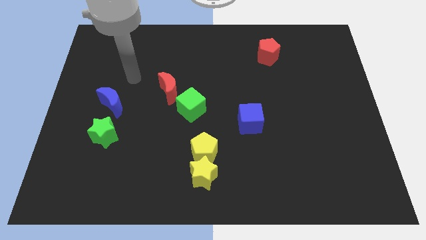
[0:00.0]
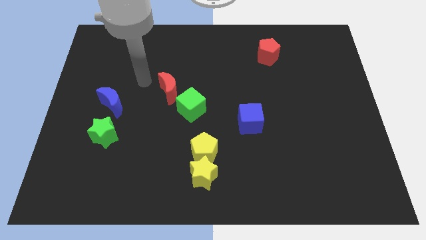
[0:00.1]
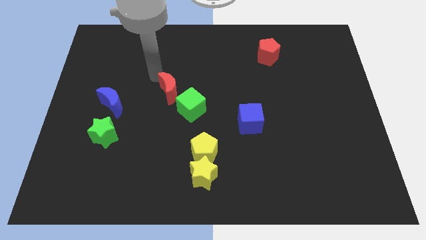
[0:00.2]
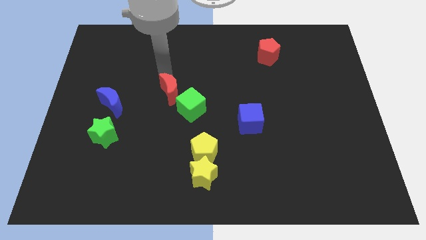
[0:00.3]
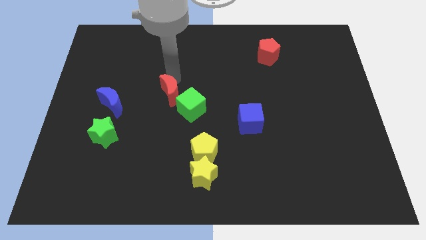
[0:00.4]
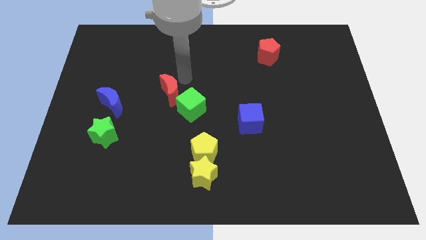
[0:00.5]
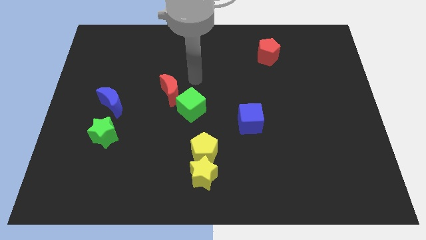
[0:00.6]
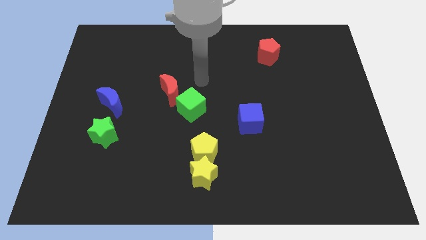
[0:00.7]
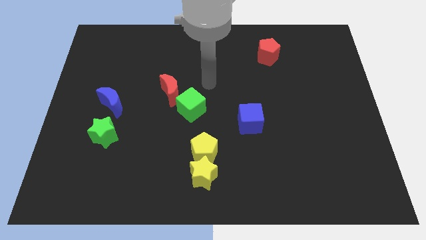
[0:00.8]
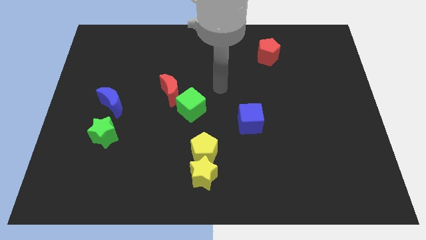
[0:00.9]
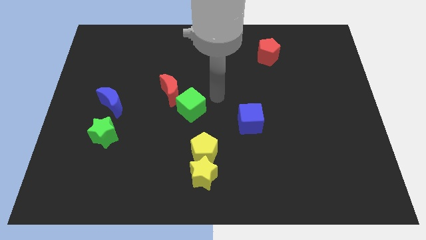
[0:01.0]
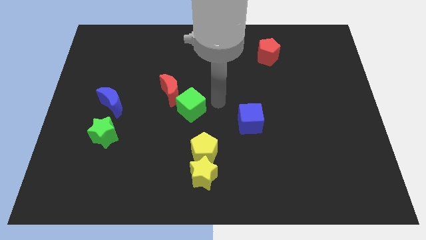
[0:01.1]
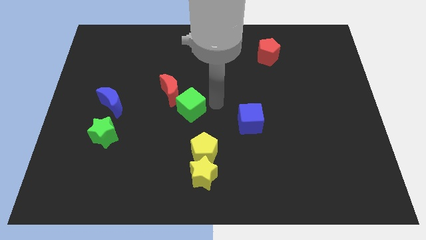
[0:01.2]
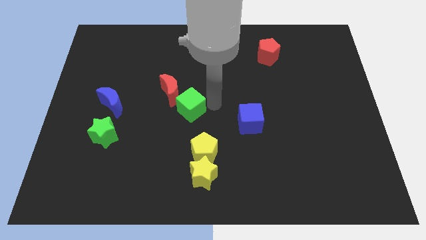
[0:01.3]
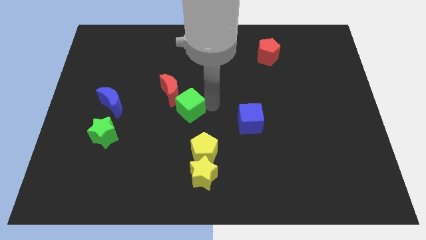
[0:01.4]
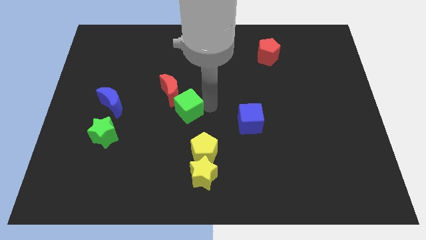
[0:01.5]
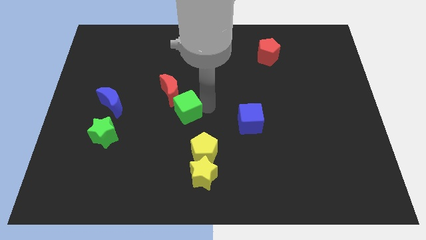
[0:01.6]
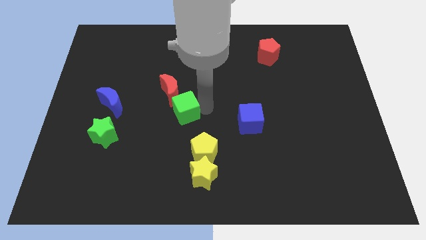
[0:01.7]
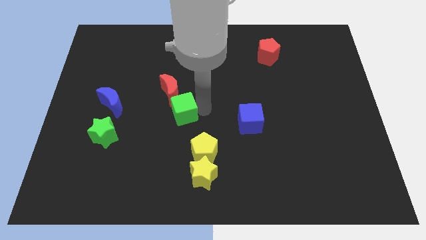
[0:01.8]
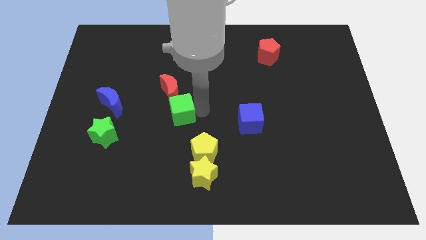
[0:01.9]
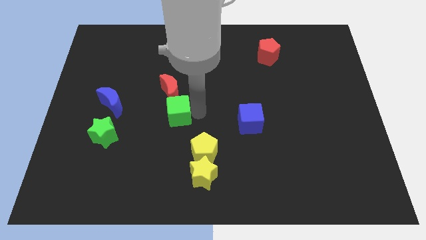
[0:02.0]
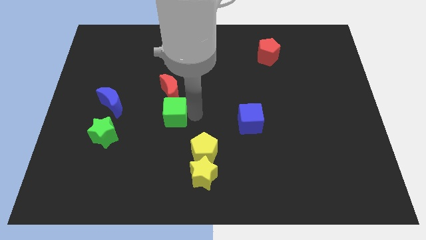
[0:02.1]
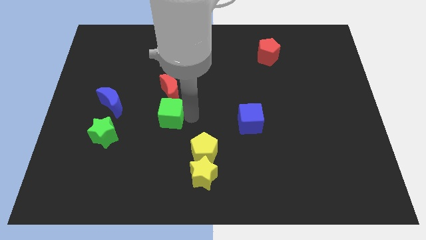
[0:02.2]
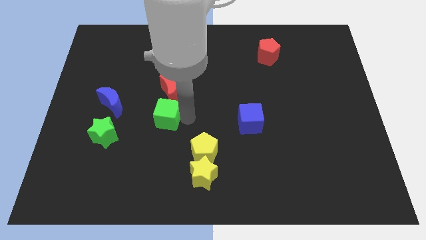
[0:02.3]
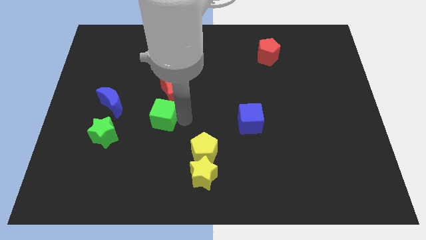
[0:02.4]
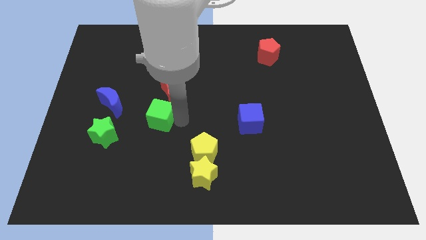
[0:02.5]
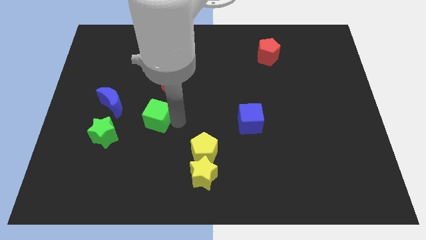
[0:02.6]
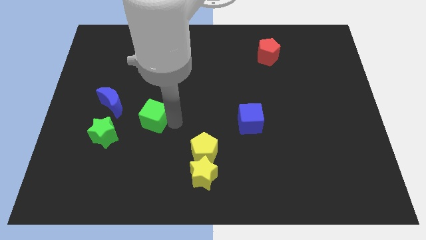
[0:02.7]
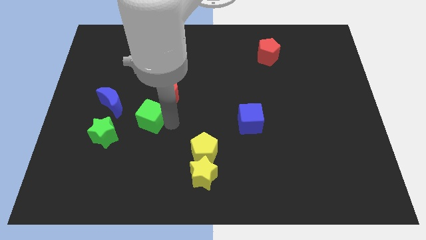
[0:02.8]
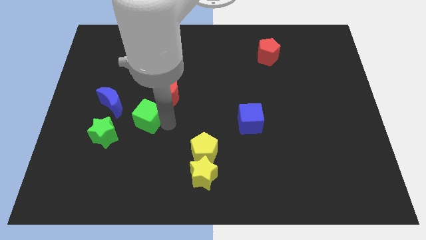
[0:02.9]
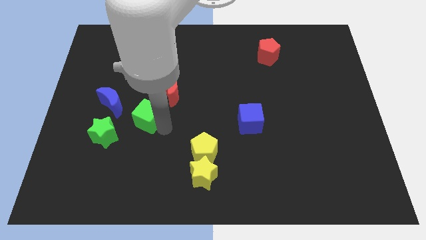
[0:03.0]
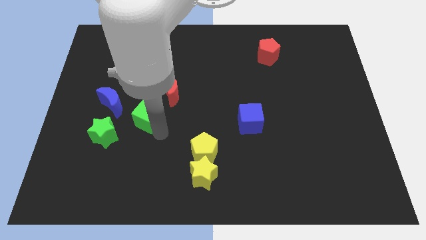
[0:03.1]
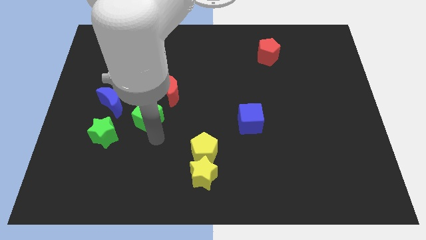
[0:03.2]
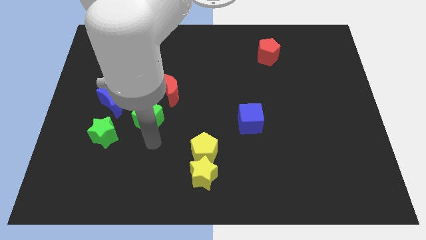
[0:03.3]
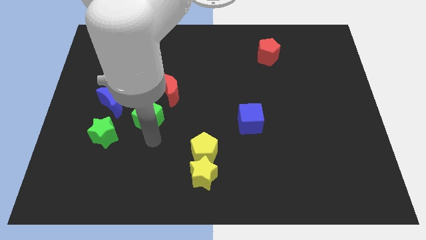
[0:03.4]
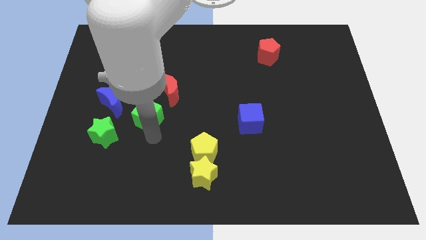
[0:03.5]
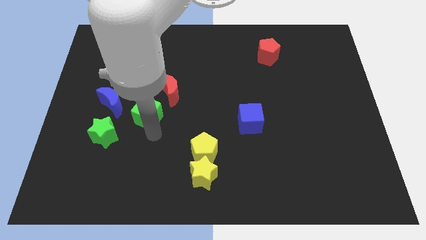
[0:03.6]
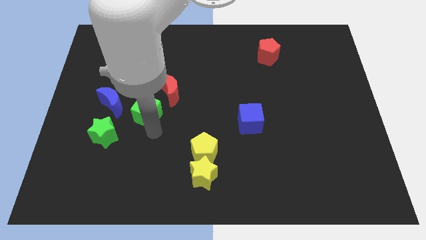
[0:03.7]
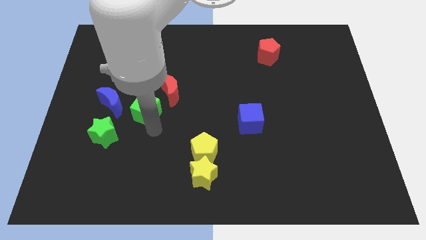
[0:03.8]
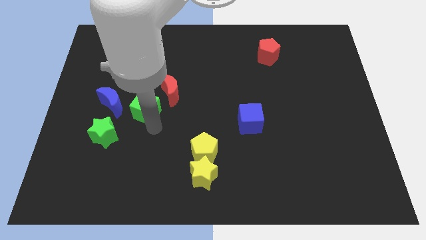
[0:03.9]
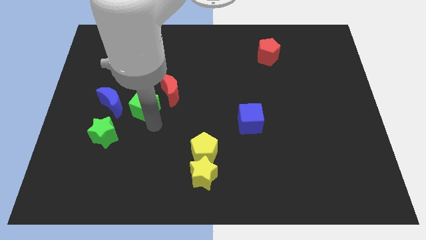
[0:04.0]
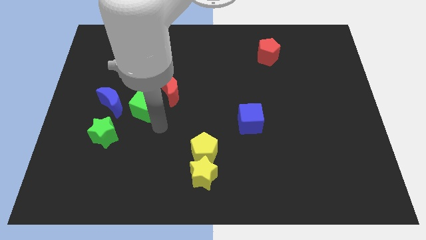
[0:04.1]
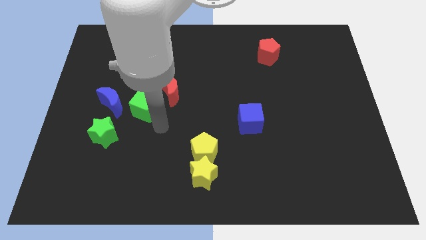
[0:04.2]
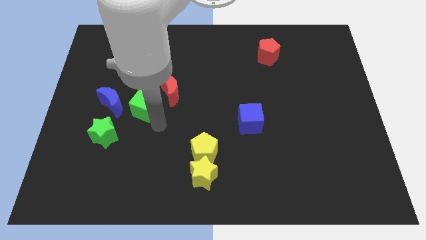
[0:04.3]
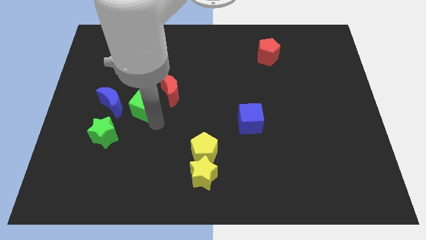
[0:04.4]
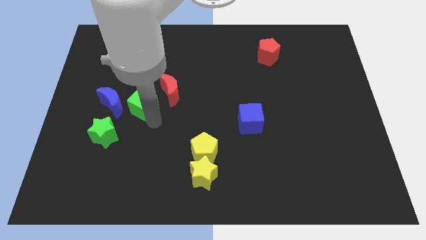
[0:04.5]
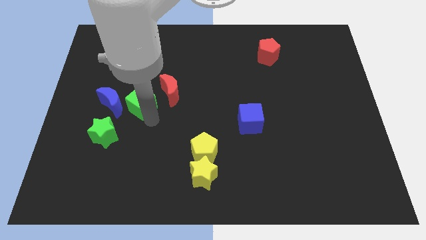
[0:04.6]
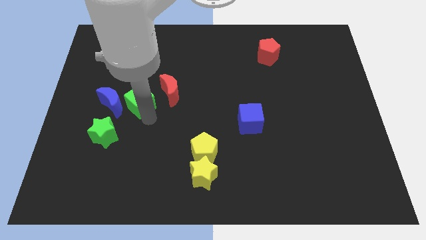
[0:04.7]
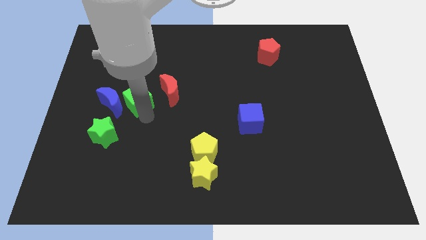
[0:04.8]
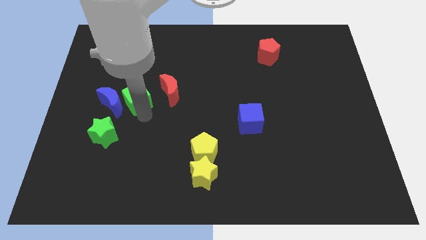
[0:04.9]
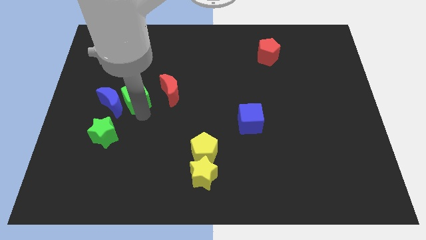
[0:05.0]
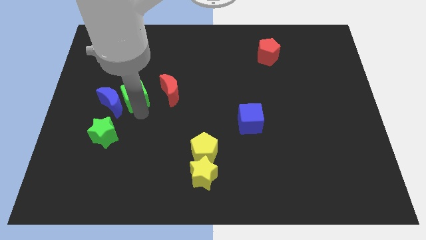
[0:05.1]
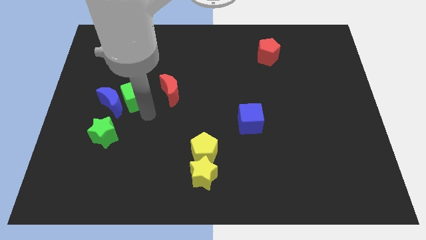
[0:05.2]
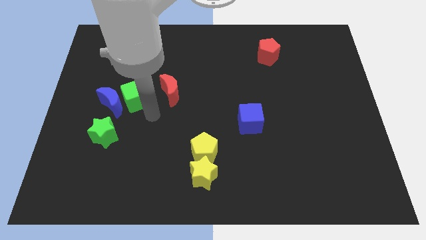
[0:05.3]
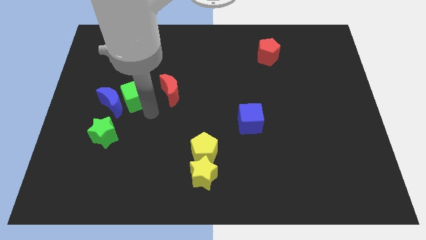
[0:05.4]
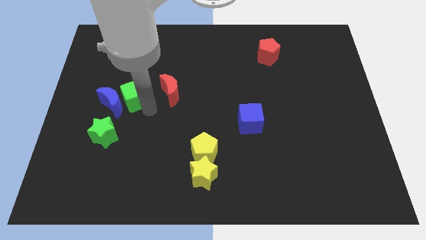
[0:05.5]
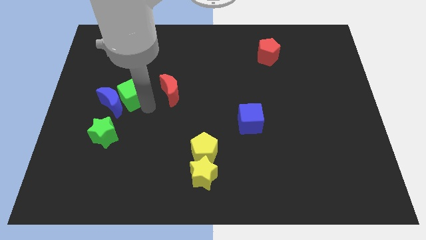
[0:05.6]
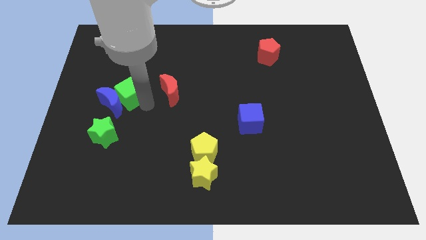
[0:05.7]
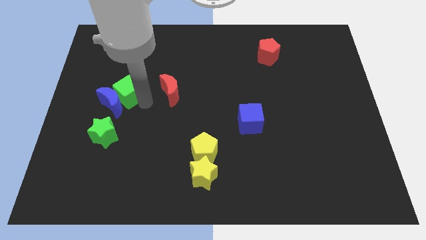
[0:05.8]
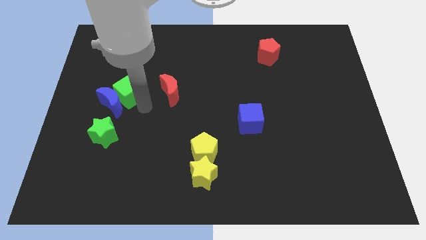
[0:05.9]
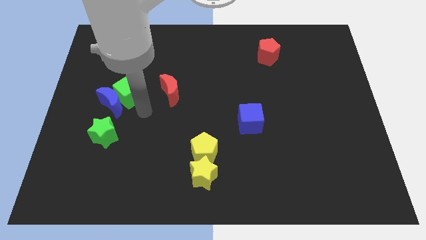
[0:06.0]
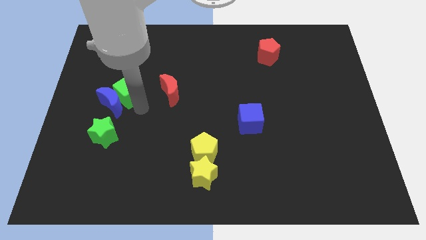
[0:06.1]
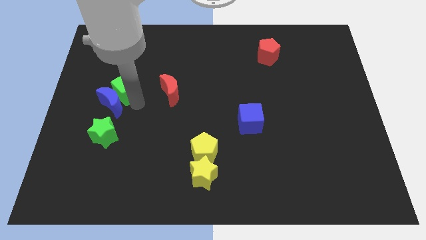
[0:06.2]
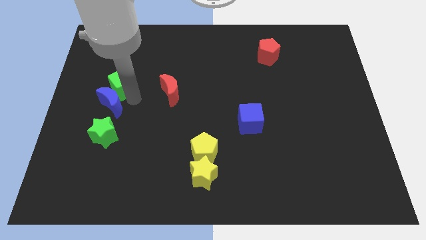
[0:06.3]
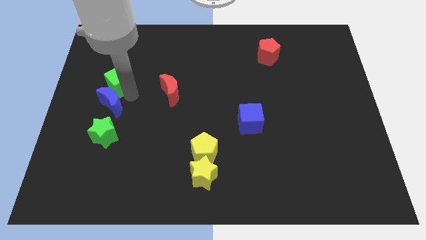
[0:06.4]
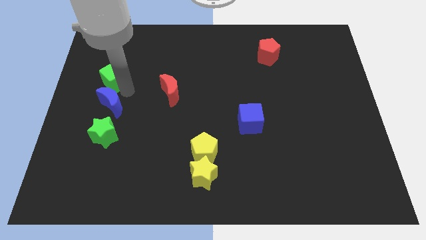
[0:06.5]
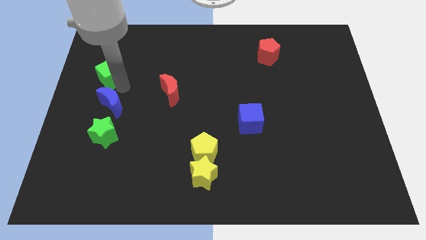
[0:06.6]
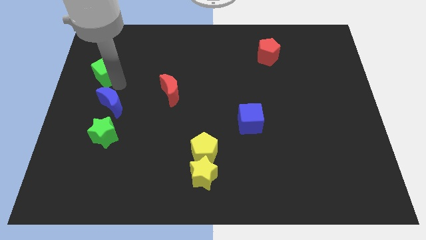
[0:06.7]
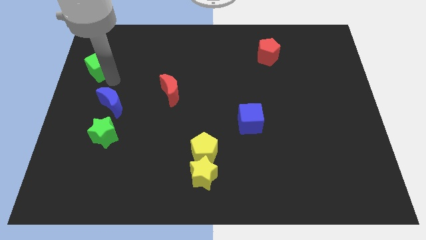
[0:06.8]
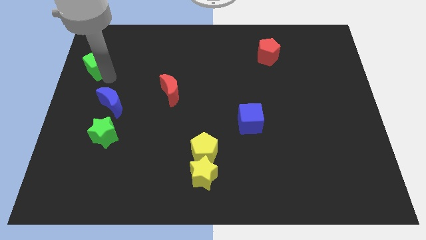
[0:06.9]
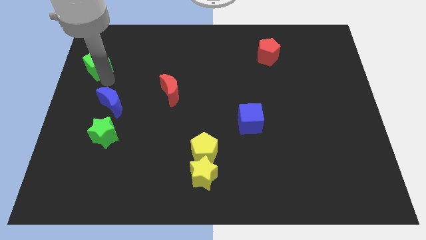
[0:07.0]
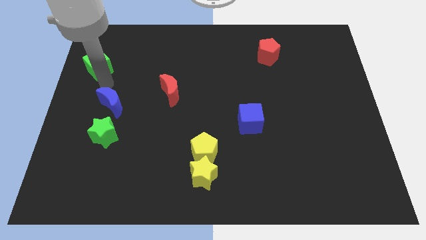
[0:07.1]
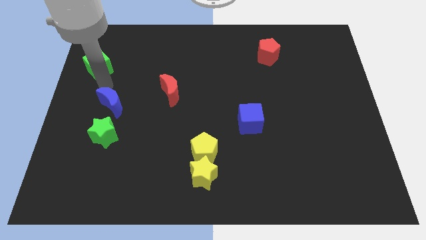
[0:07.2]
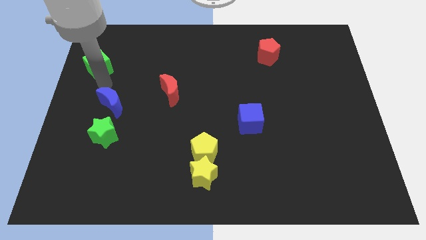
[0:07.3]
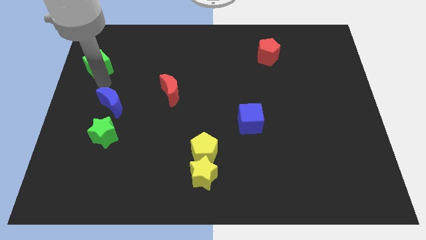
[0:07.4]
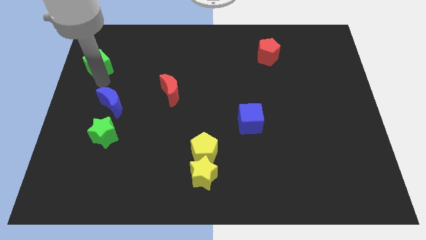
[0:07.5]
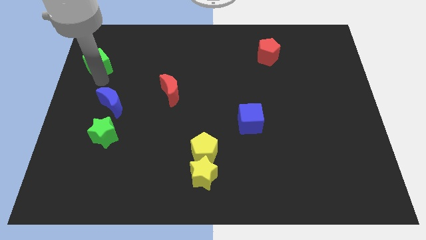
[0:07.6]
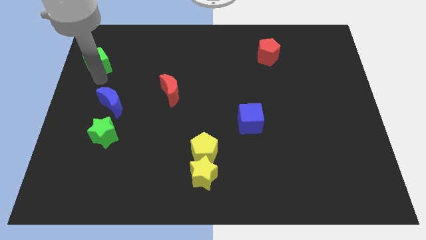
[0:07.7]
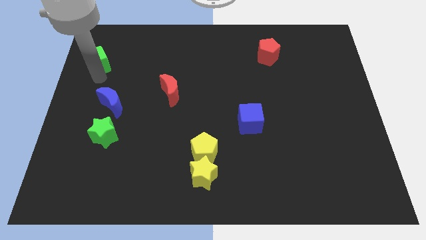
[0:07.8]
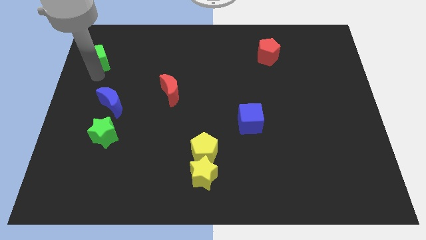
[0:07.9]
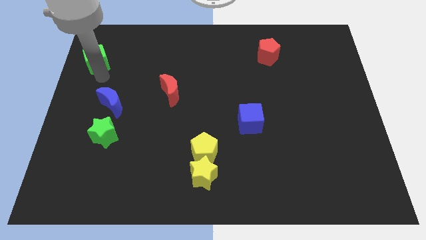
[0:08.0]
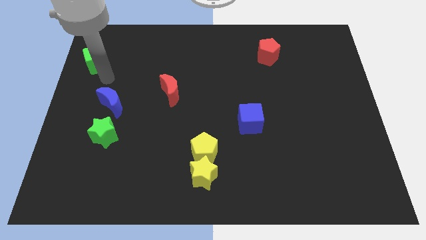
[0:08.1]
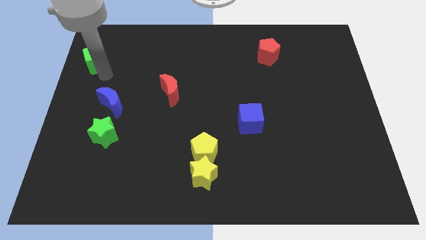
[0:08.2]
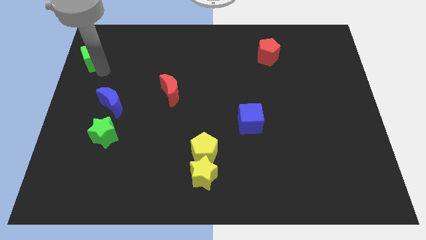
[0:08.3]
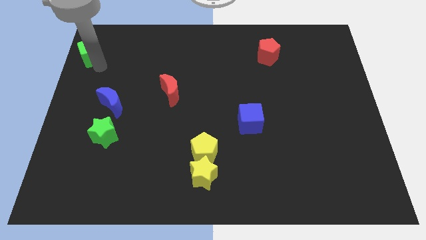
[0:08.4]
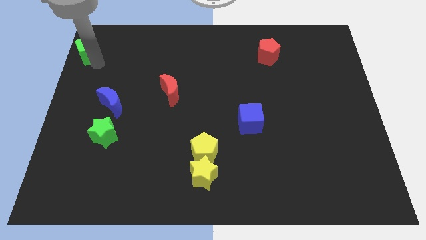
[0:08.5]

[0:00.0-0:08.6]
push the green cube to the top left
